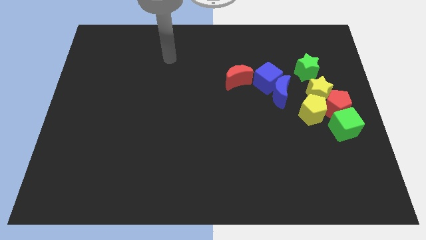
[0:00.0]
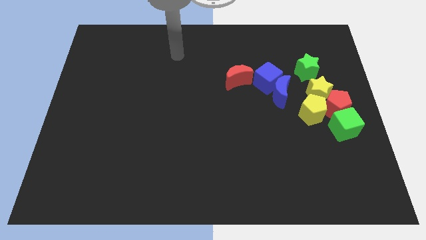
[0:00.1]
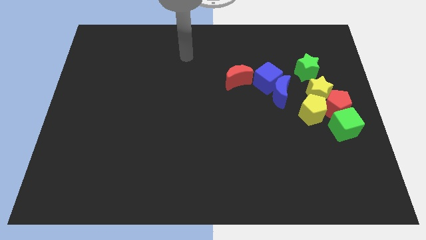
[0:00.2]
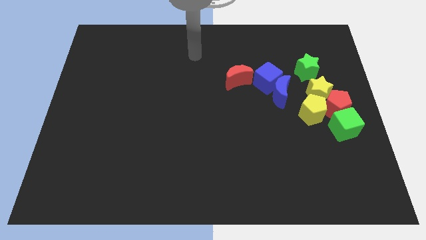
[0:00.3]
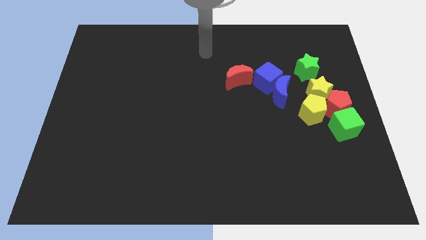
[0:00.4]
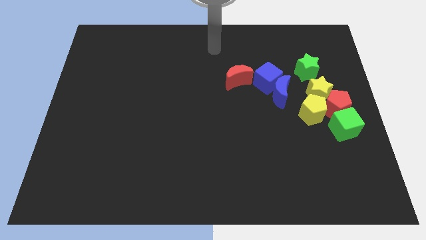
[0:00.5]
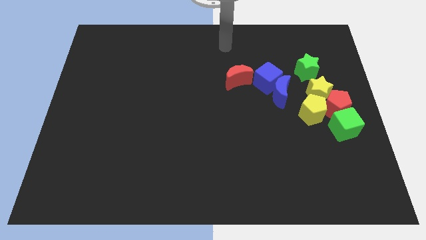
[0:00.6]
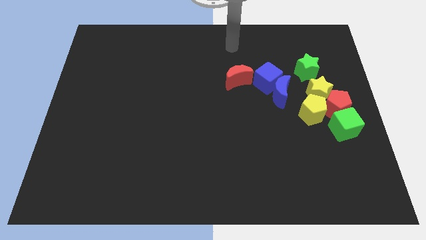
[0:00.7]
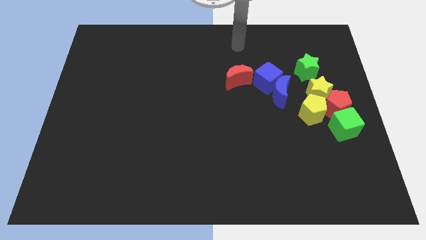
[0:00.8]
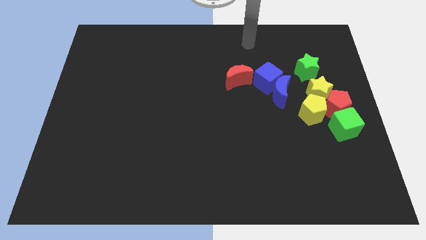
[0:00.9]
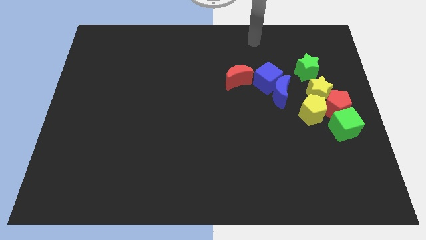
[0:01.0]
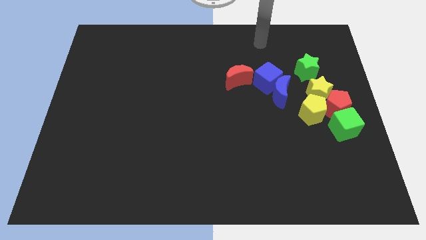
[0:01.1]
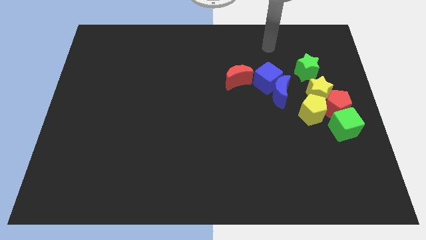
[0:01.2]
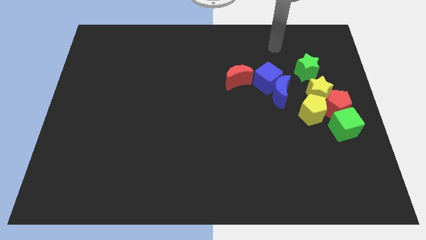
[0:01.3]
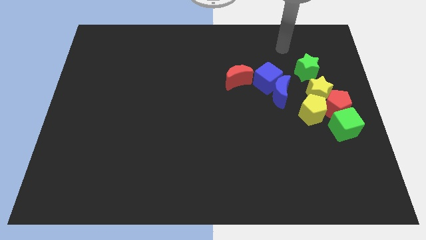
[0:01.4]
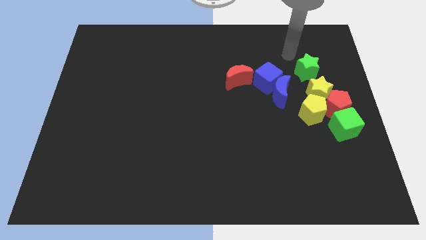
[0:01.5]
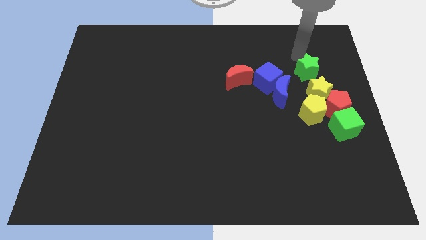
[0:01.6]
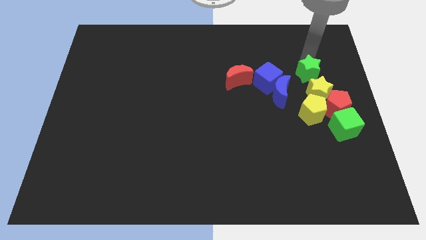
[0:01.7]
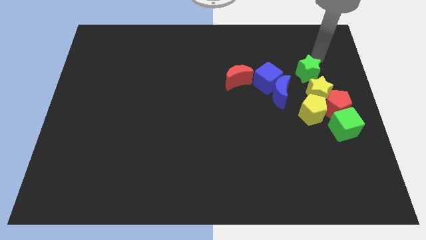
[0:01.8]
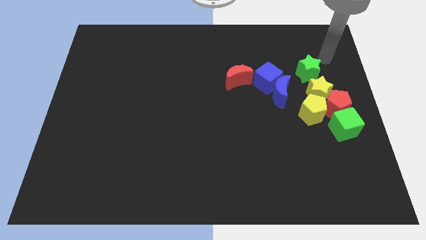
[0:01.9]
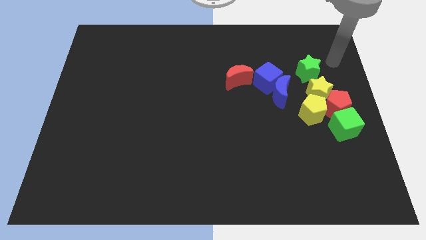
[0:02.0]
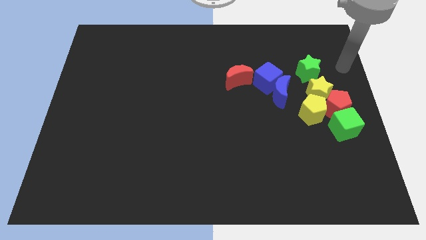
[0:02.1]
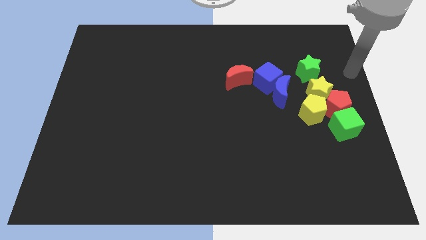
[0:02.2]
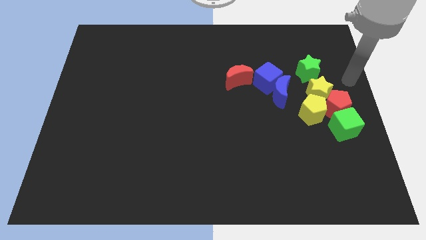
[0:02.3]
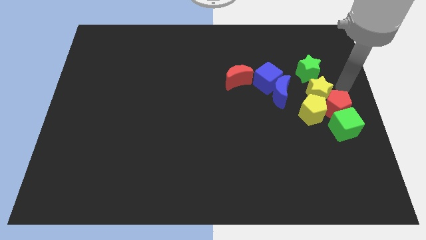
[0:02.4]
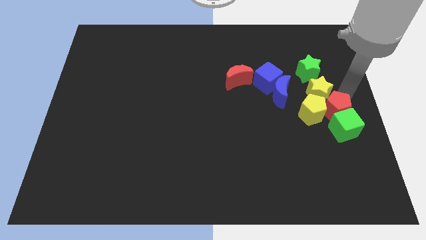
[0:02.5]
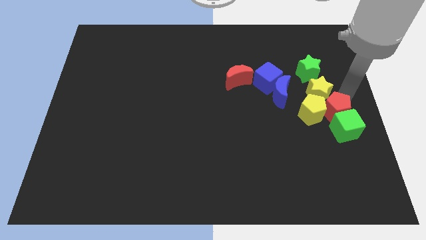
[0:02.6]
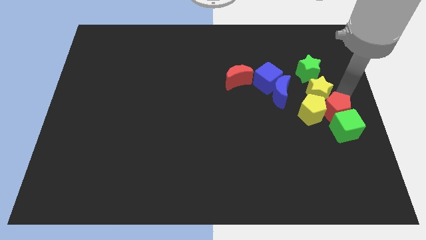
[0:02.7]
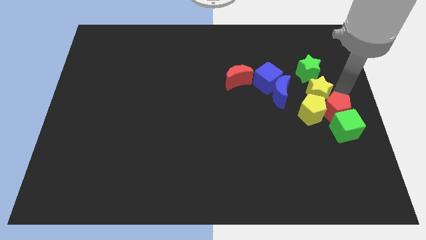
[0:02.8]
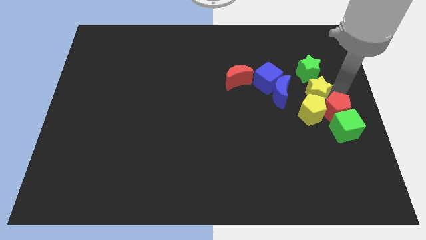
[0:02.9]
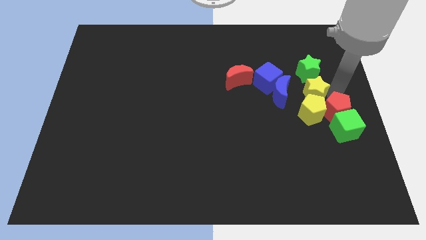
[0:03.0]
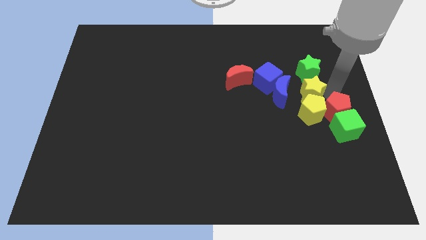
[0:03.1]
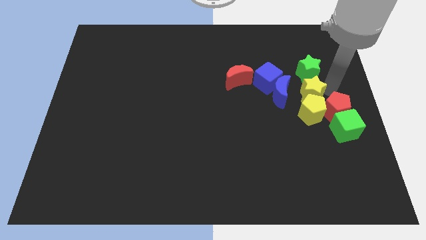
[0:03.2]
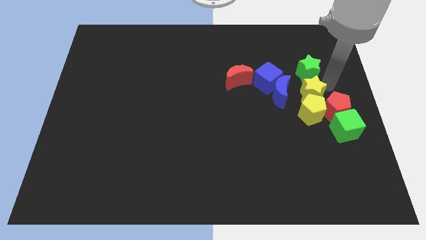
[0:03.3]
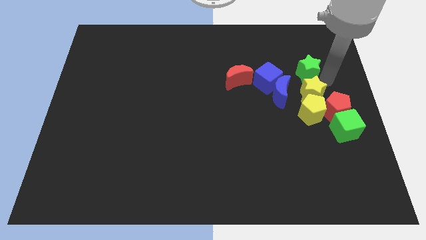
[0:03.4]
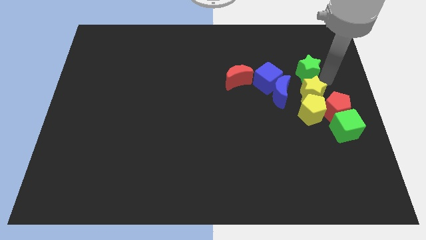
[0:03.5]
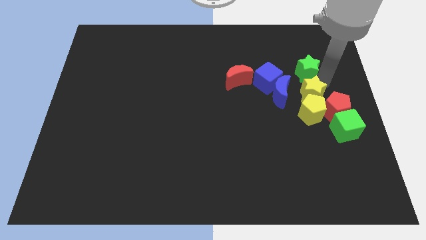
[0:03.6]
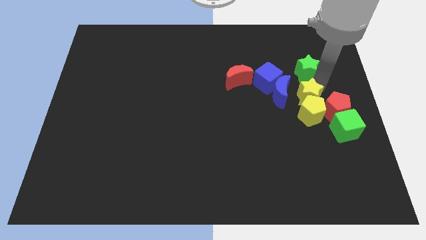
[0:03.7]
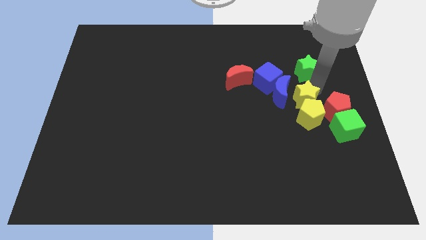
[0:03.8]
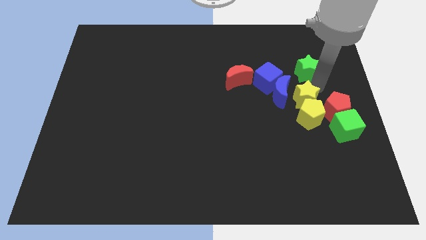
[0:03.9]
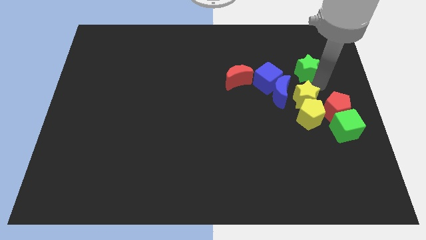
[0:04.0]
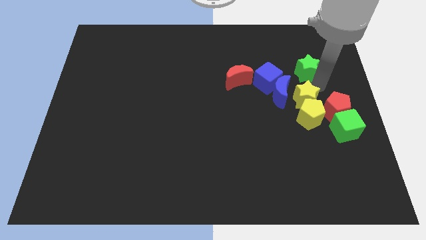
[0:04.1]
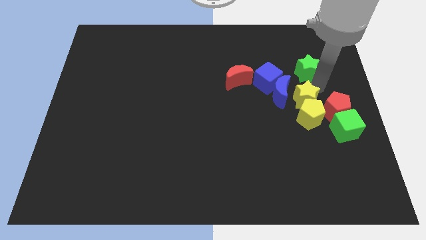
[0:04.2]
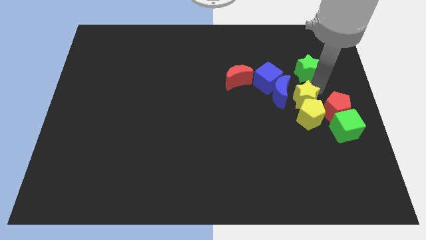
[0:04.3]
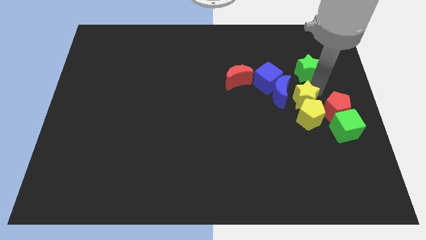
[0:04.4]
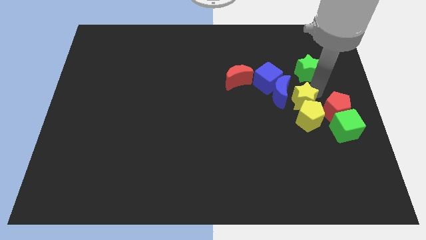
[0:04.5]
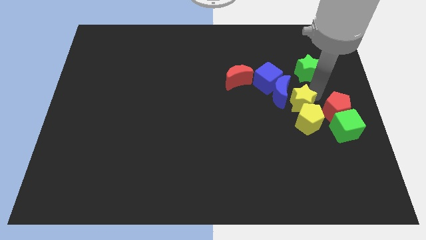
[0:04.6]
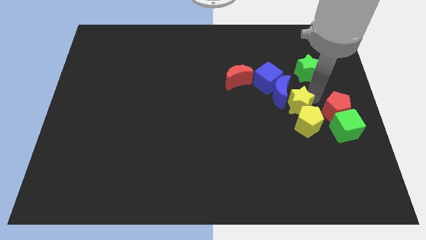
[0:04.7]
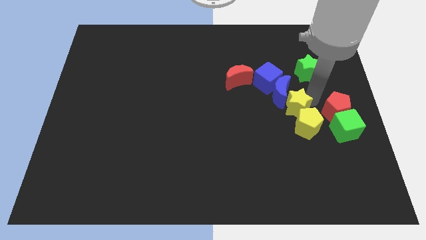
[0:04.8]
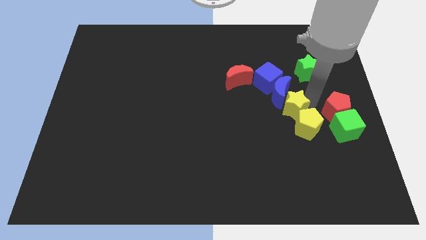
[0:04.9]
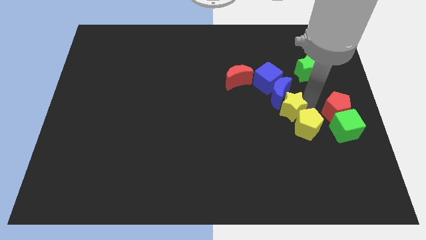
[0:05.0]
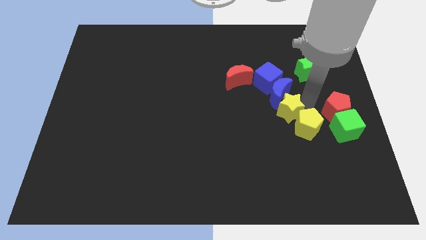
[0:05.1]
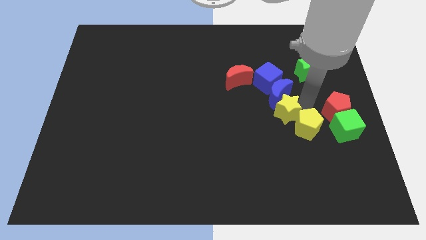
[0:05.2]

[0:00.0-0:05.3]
slide the yellow star to the left somewhat

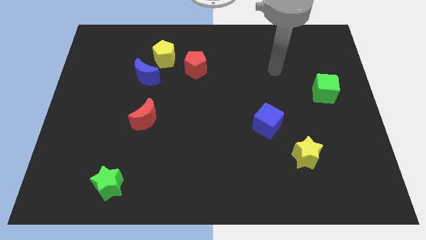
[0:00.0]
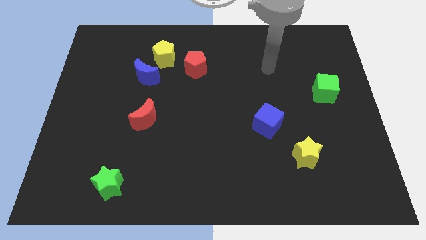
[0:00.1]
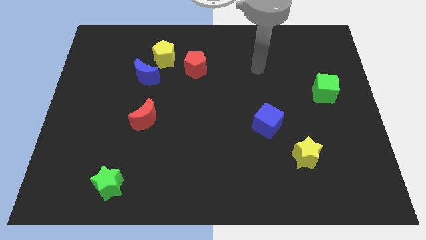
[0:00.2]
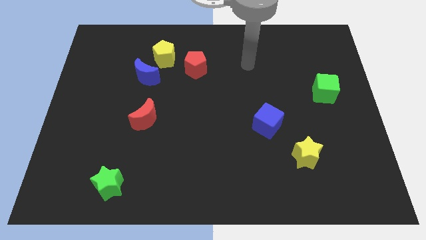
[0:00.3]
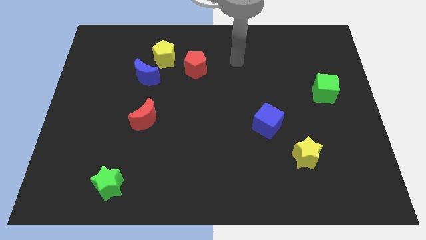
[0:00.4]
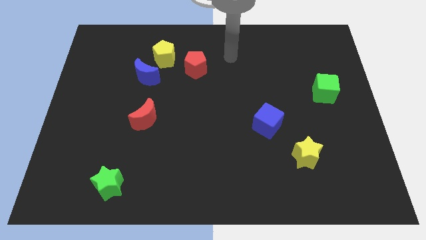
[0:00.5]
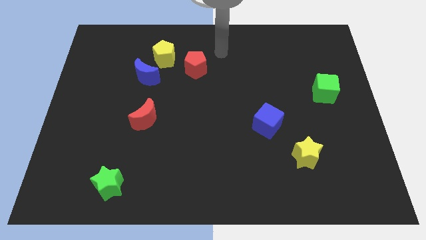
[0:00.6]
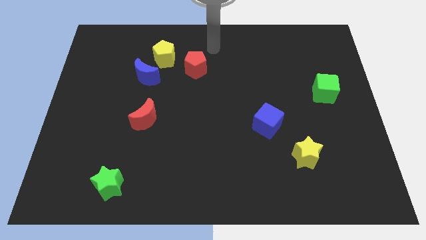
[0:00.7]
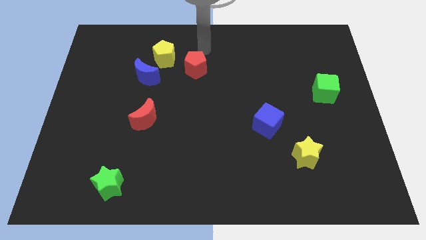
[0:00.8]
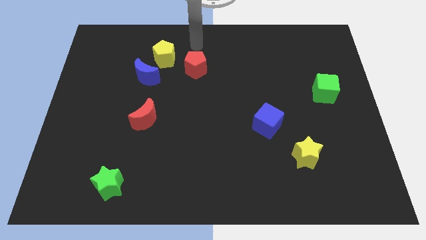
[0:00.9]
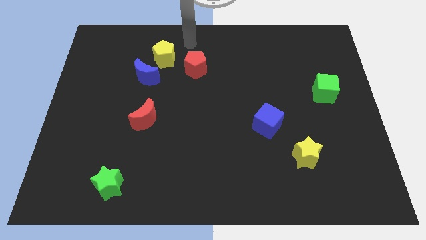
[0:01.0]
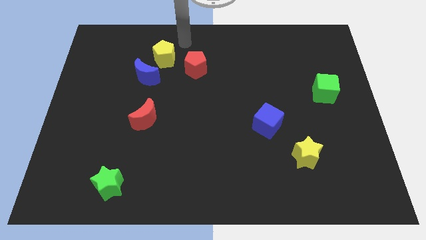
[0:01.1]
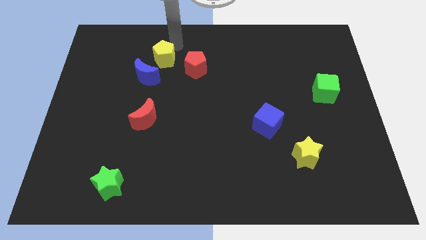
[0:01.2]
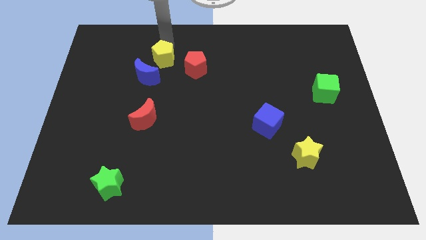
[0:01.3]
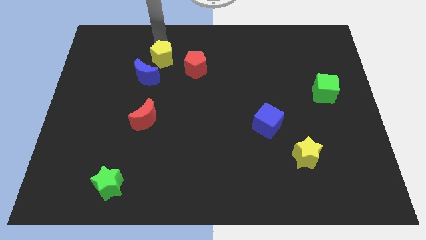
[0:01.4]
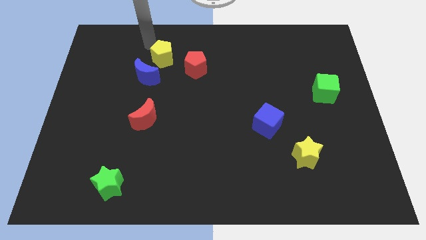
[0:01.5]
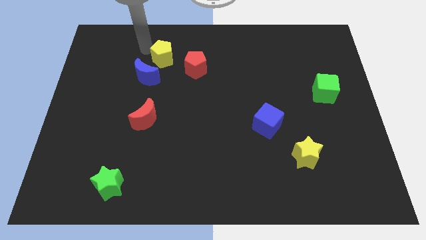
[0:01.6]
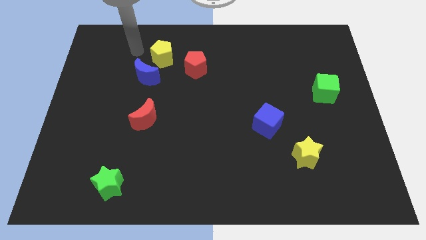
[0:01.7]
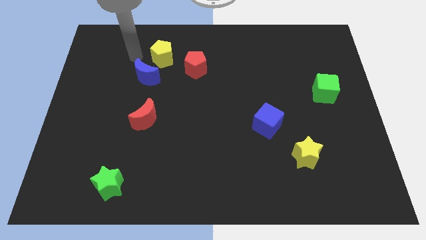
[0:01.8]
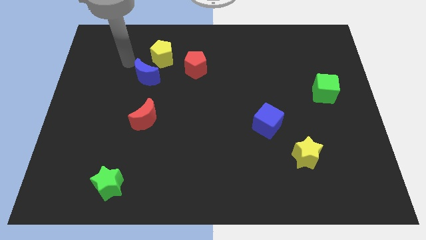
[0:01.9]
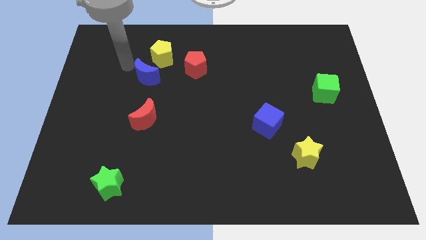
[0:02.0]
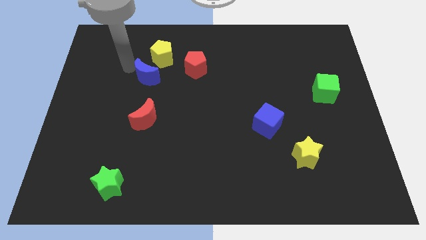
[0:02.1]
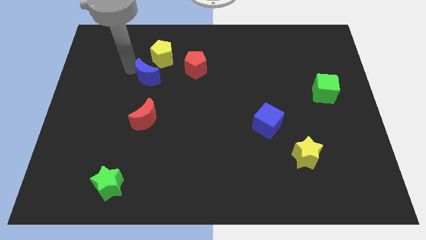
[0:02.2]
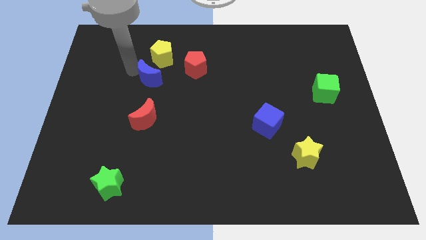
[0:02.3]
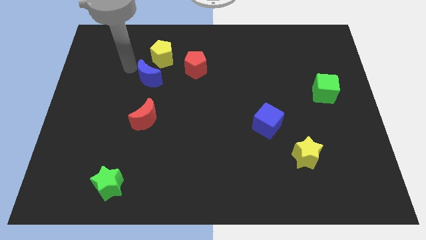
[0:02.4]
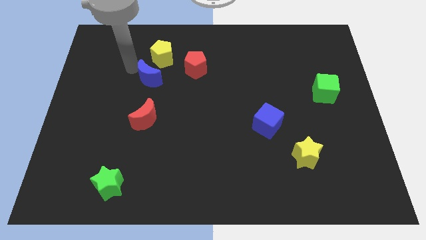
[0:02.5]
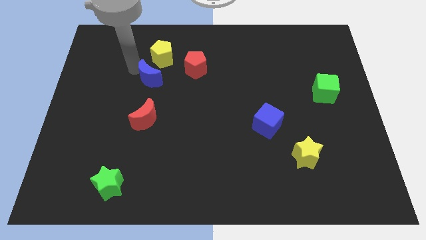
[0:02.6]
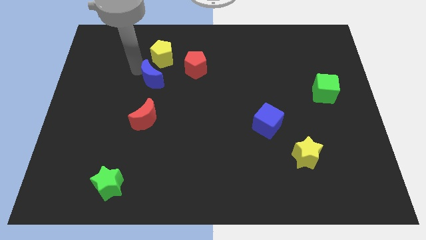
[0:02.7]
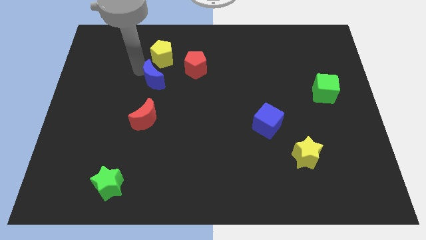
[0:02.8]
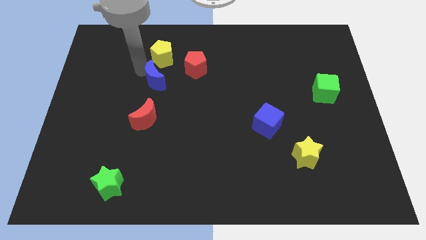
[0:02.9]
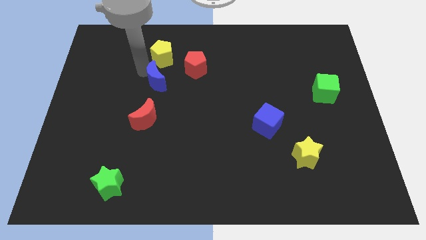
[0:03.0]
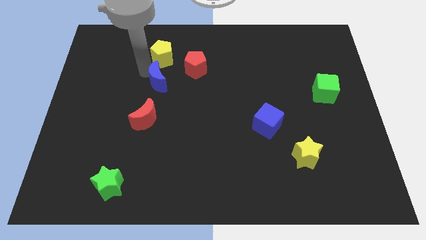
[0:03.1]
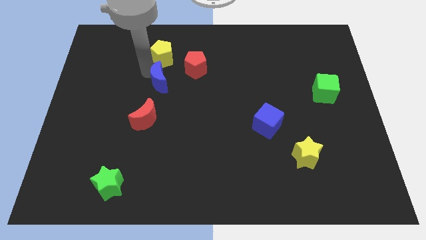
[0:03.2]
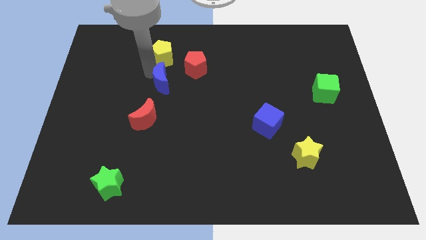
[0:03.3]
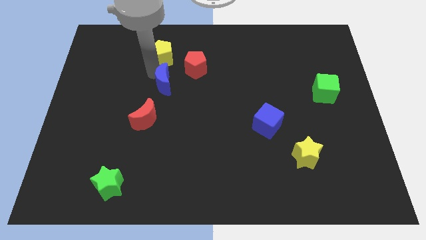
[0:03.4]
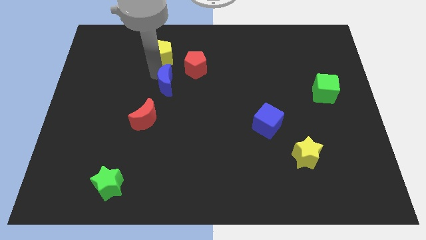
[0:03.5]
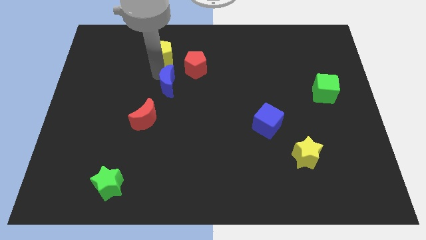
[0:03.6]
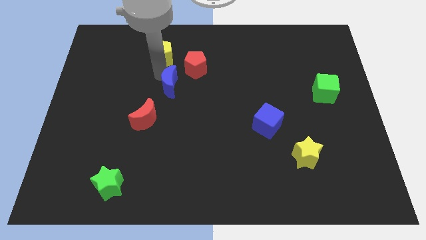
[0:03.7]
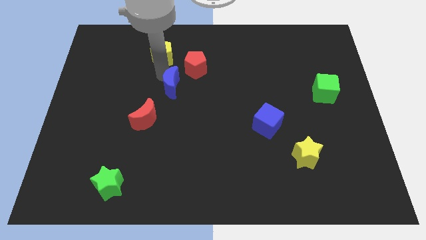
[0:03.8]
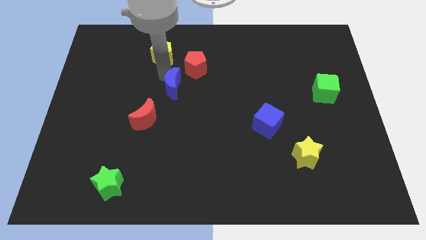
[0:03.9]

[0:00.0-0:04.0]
push the blue moon a little downwards and to the right
